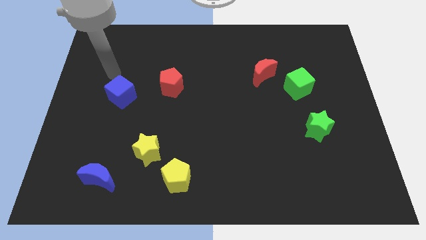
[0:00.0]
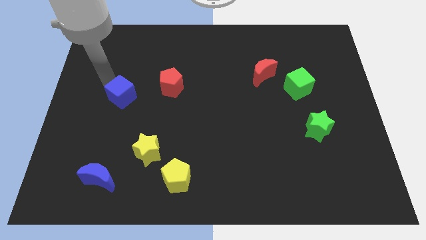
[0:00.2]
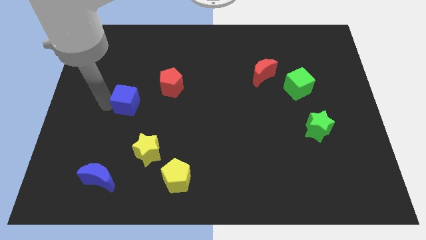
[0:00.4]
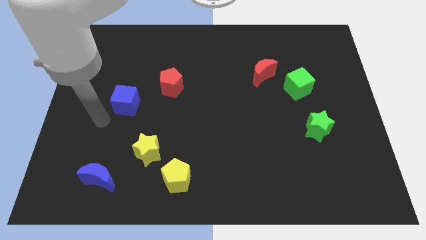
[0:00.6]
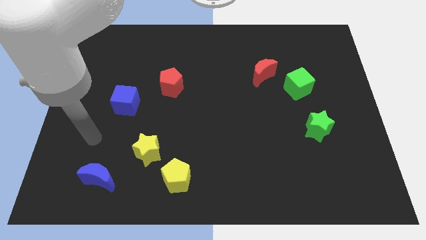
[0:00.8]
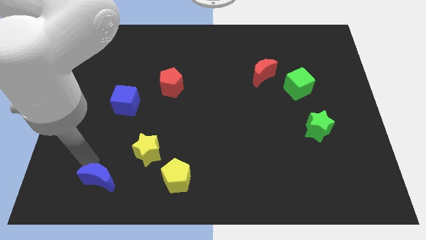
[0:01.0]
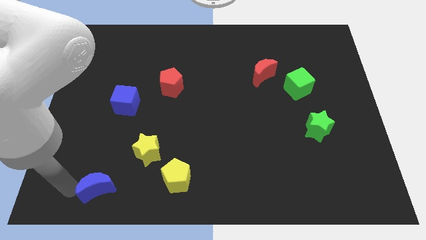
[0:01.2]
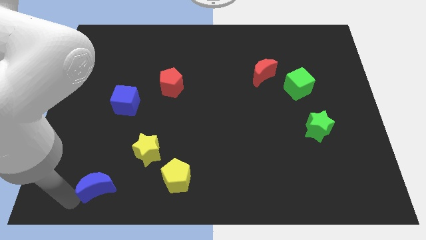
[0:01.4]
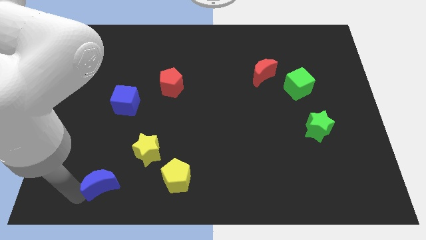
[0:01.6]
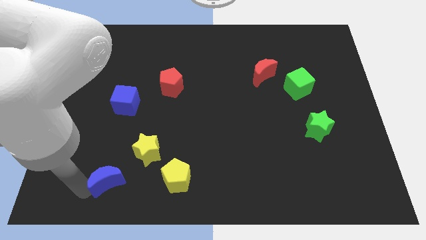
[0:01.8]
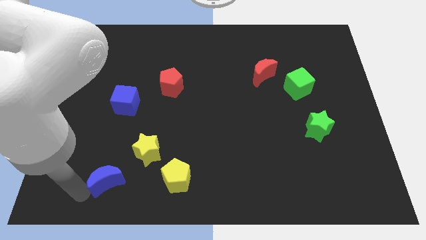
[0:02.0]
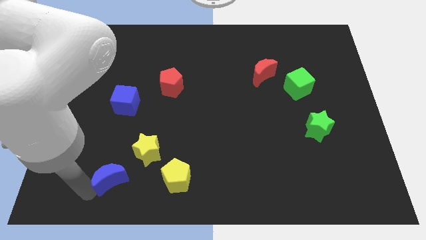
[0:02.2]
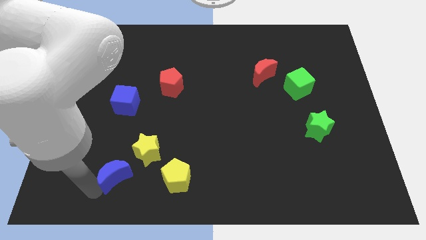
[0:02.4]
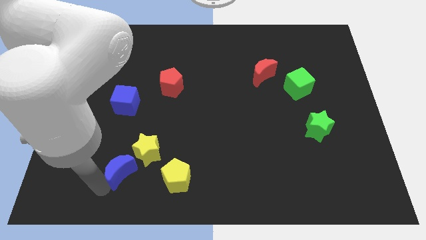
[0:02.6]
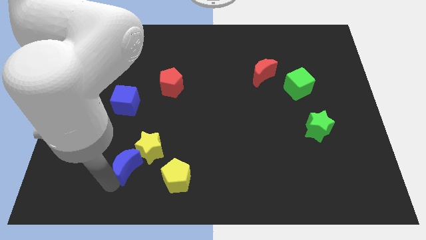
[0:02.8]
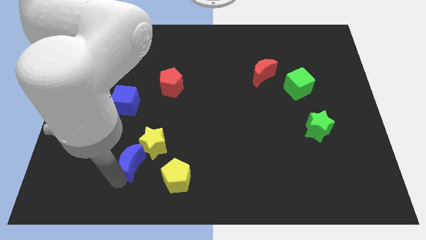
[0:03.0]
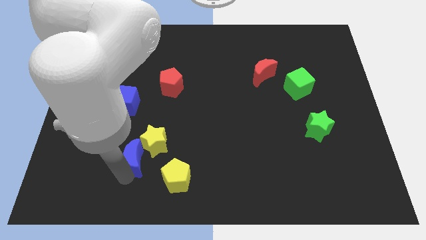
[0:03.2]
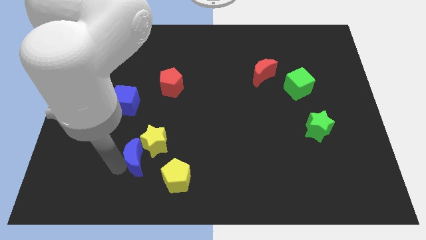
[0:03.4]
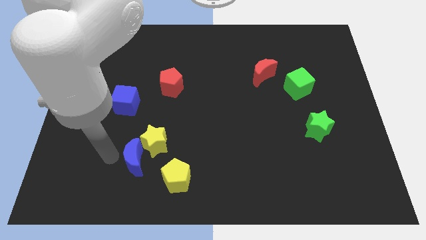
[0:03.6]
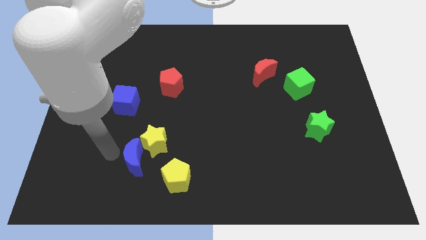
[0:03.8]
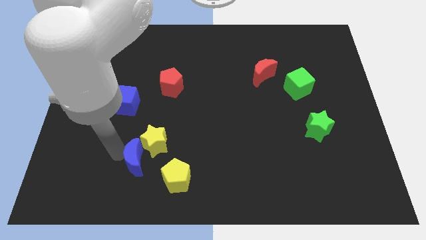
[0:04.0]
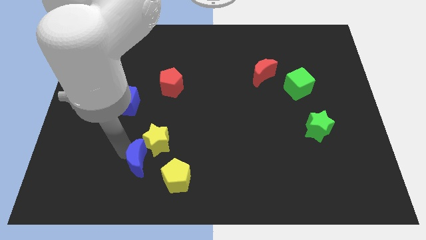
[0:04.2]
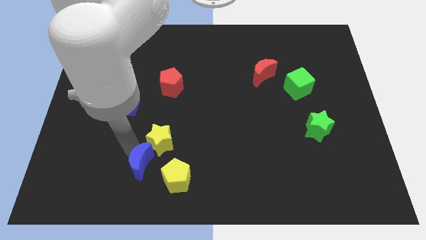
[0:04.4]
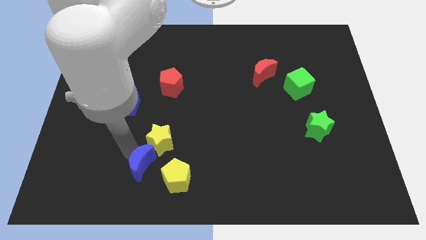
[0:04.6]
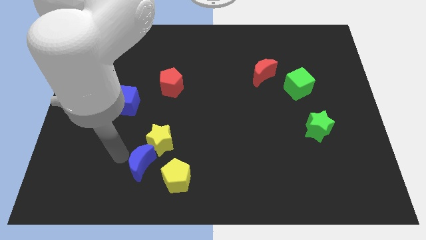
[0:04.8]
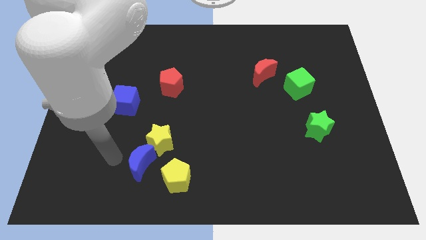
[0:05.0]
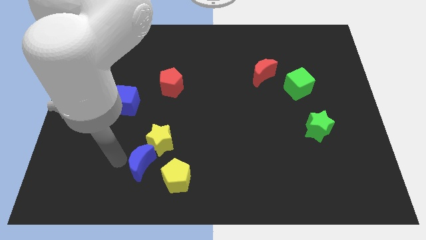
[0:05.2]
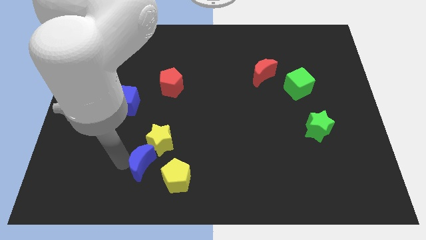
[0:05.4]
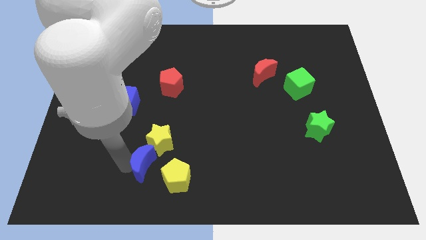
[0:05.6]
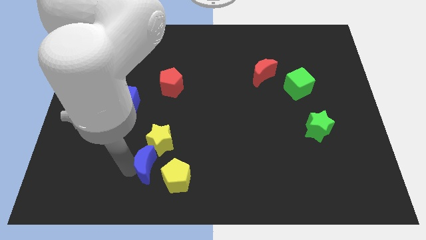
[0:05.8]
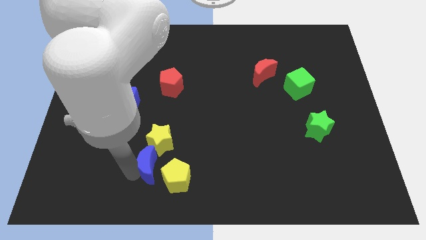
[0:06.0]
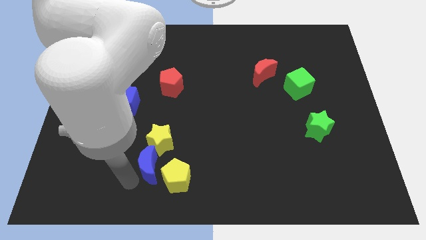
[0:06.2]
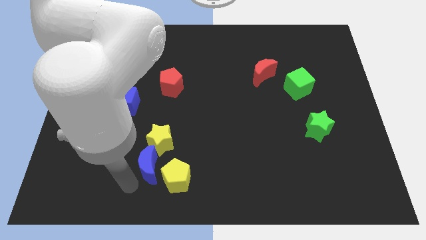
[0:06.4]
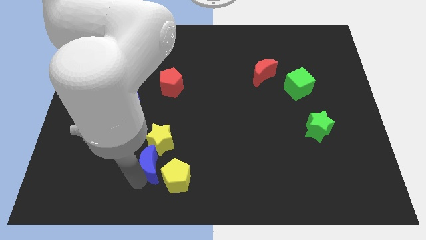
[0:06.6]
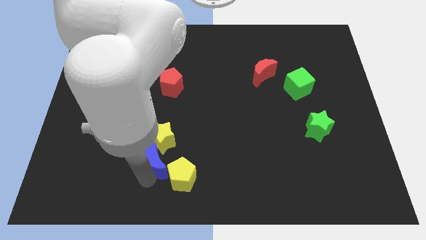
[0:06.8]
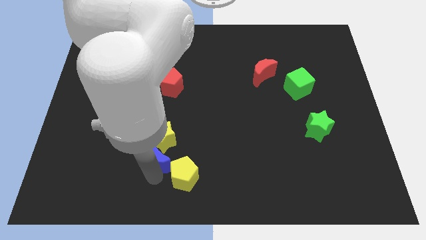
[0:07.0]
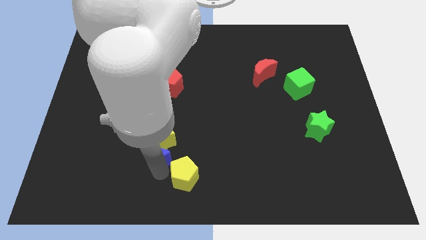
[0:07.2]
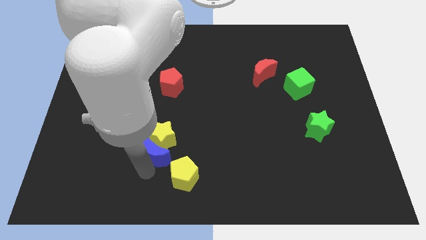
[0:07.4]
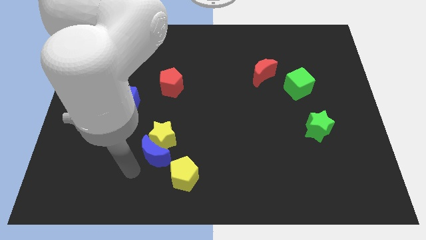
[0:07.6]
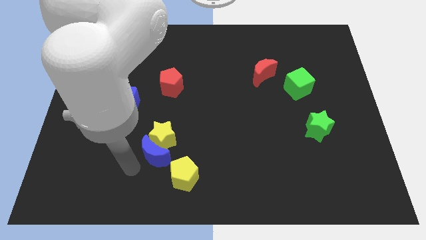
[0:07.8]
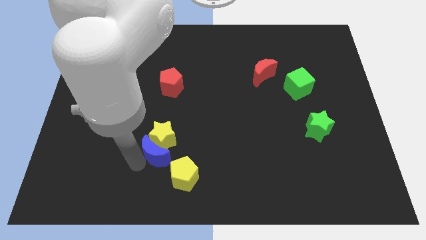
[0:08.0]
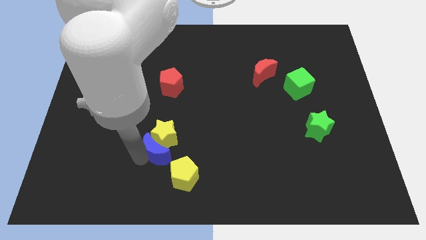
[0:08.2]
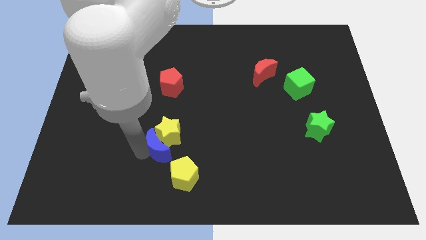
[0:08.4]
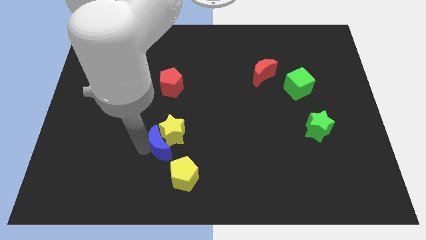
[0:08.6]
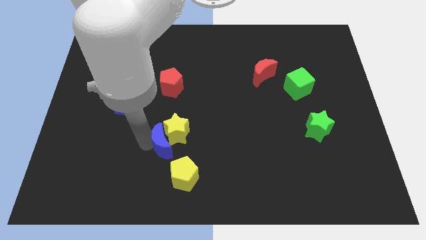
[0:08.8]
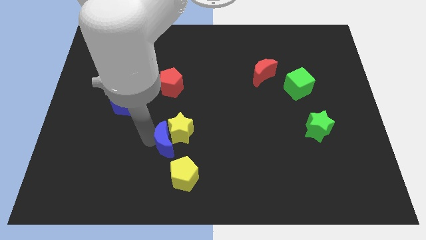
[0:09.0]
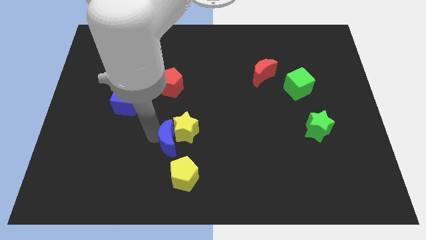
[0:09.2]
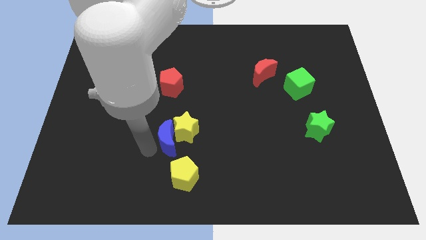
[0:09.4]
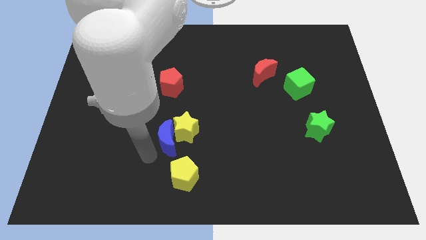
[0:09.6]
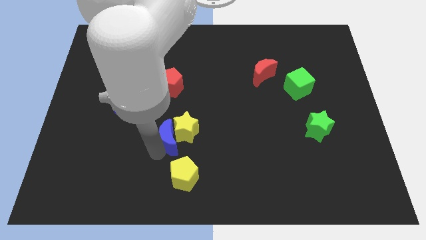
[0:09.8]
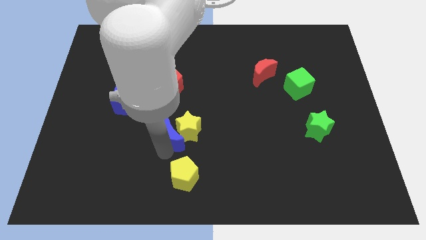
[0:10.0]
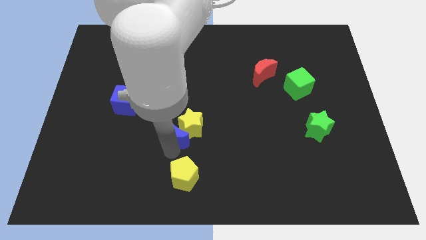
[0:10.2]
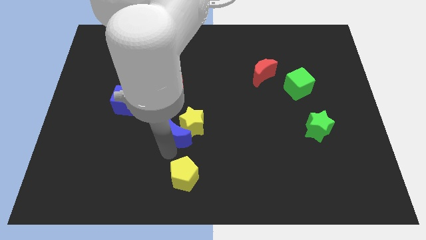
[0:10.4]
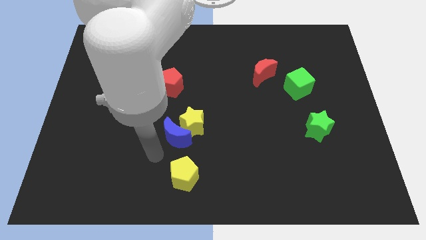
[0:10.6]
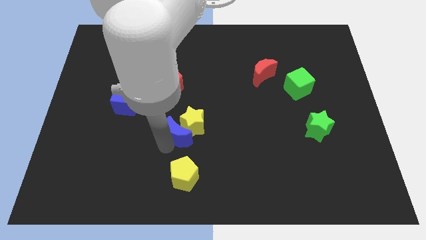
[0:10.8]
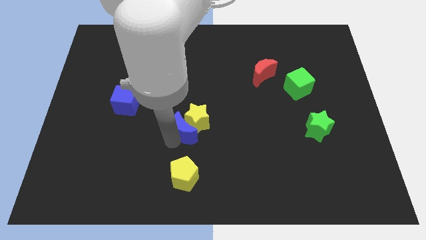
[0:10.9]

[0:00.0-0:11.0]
move the blue moon to the center of the board

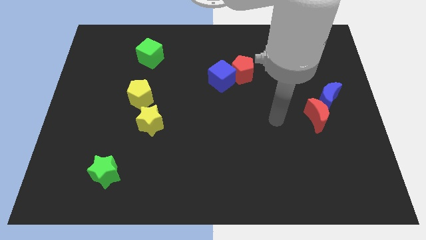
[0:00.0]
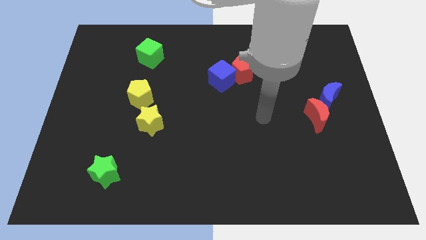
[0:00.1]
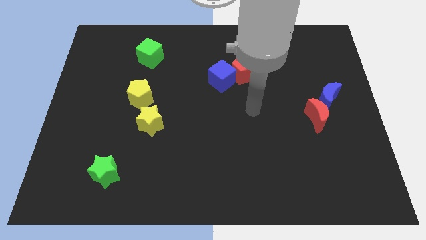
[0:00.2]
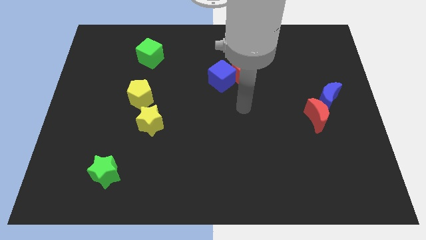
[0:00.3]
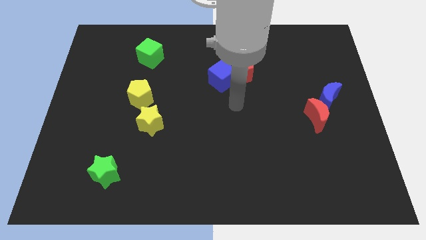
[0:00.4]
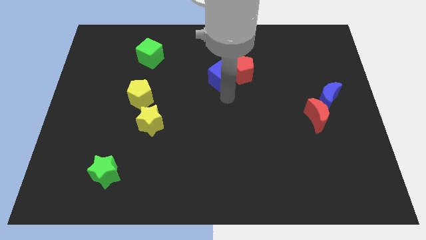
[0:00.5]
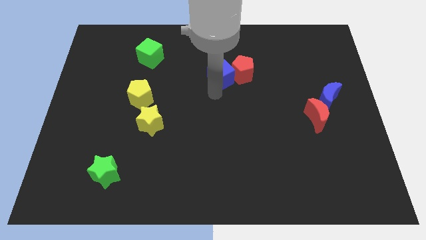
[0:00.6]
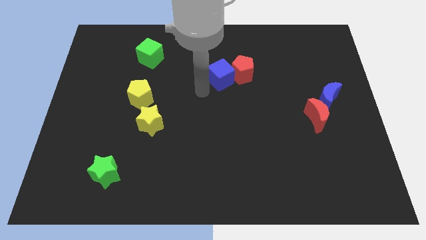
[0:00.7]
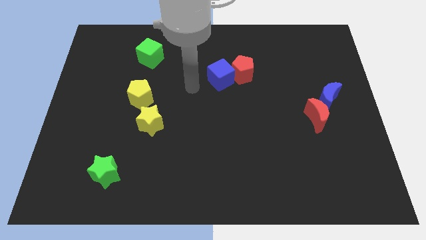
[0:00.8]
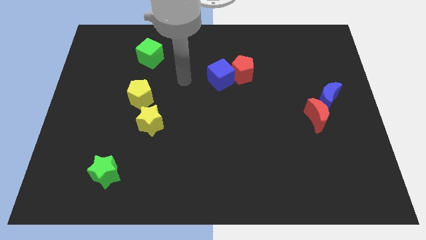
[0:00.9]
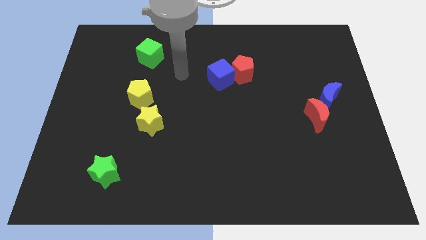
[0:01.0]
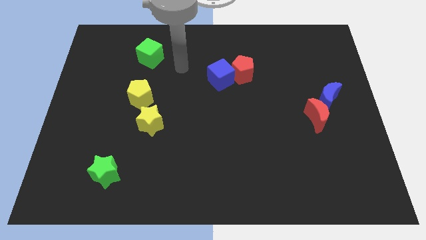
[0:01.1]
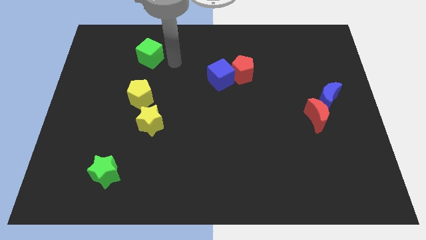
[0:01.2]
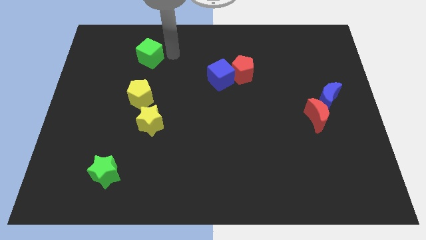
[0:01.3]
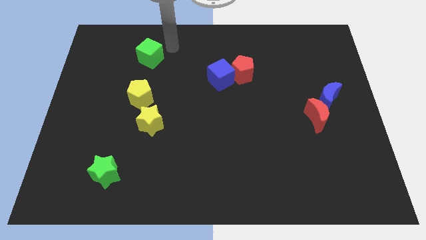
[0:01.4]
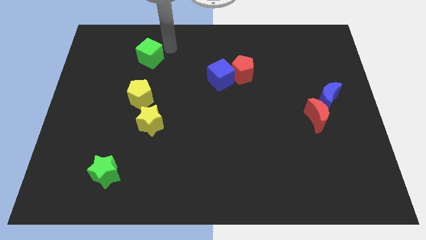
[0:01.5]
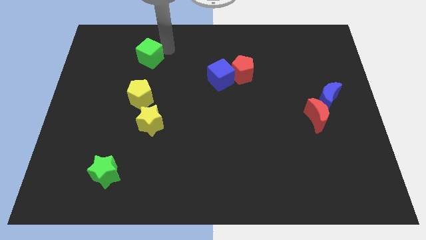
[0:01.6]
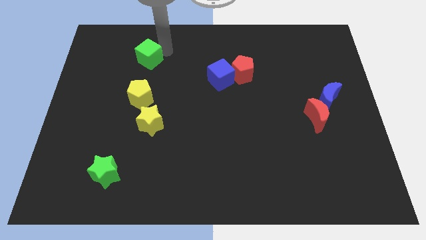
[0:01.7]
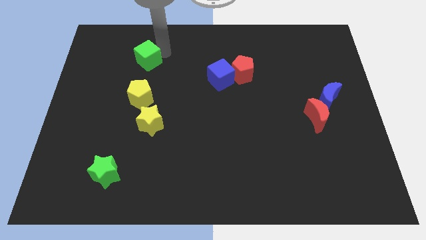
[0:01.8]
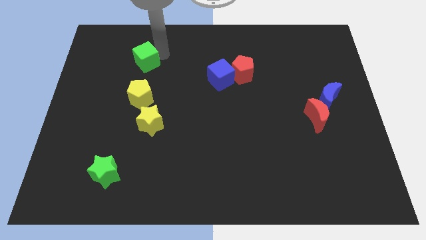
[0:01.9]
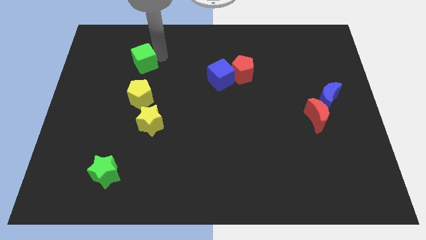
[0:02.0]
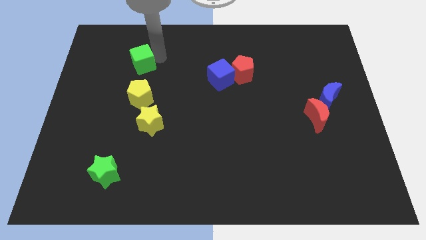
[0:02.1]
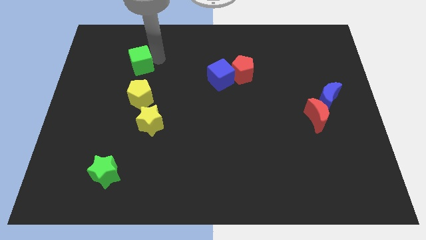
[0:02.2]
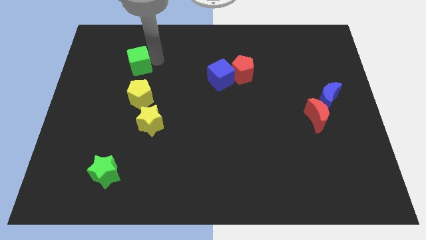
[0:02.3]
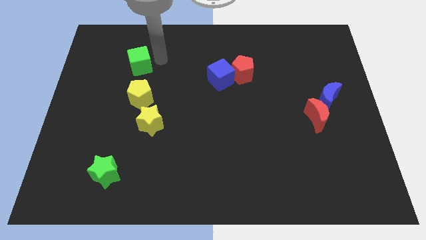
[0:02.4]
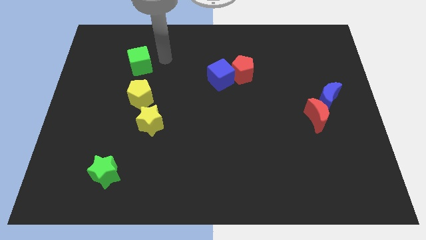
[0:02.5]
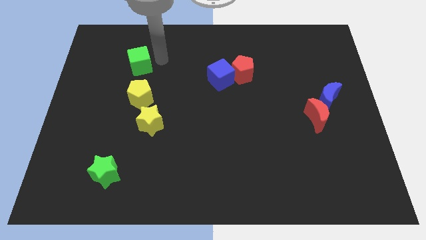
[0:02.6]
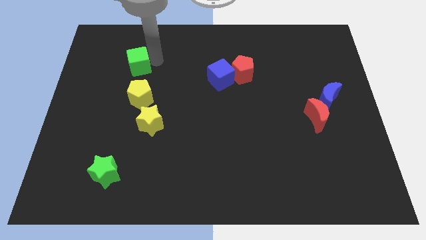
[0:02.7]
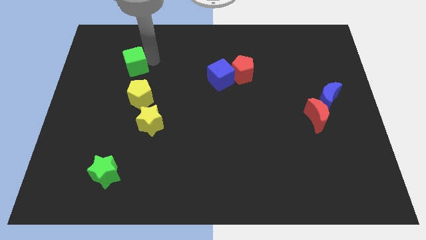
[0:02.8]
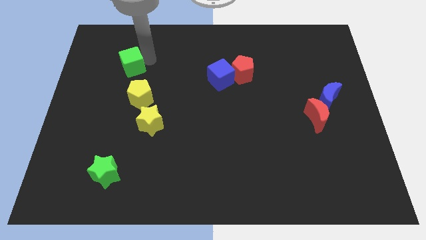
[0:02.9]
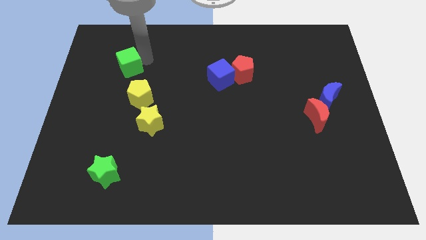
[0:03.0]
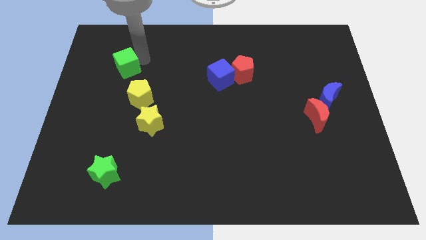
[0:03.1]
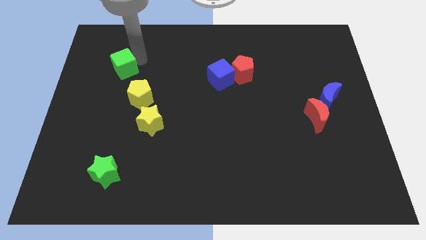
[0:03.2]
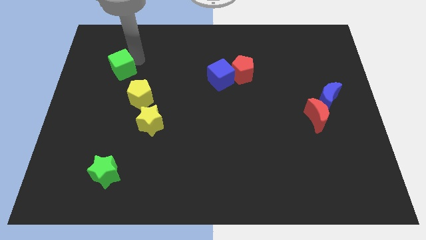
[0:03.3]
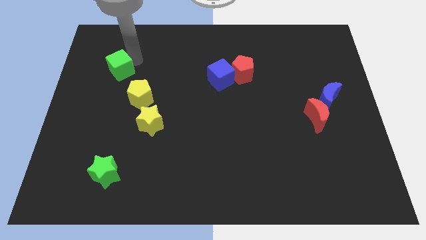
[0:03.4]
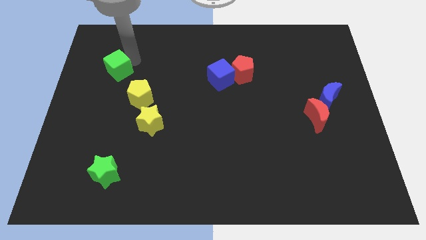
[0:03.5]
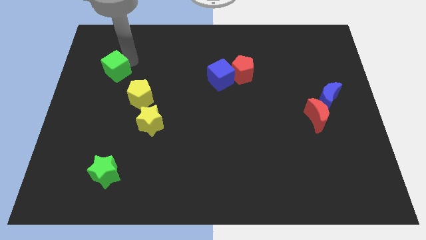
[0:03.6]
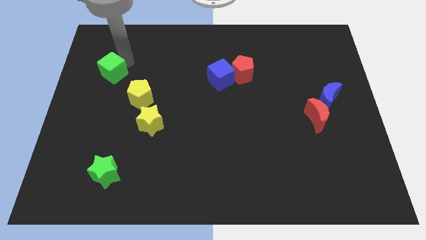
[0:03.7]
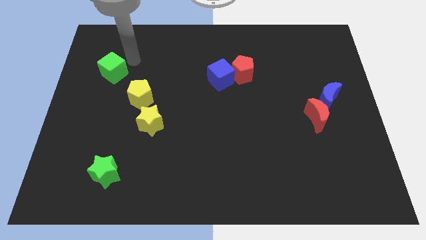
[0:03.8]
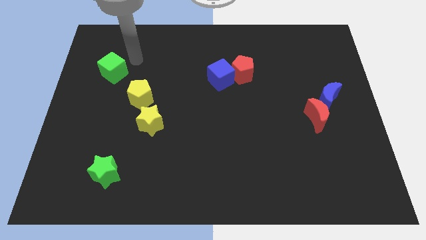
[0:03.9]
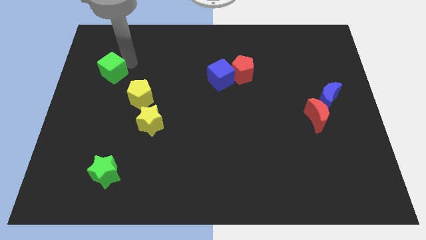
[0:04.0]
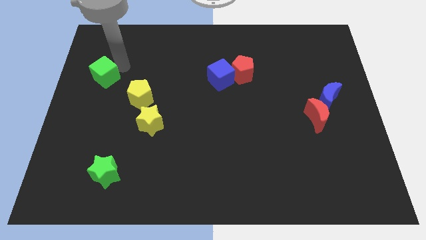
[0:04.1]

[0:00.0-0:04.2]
put the green cube to the center left
